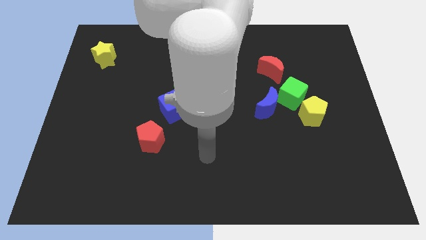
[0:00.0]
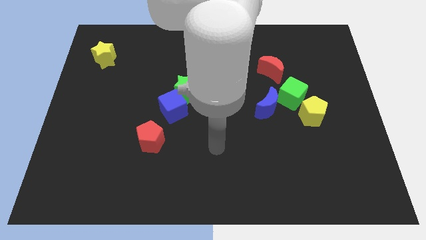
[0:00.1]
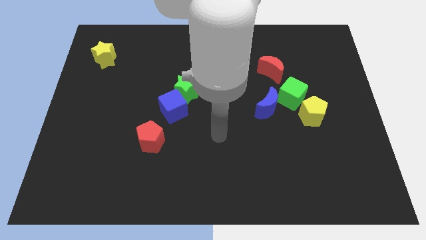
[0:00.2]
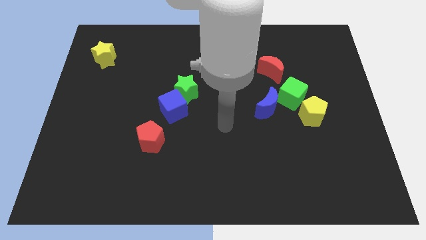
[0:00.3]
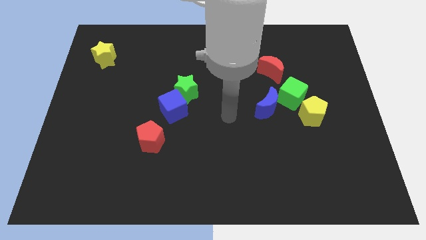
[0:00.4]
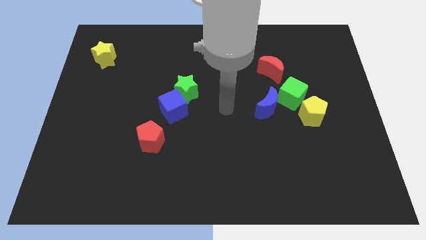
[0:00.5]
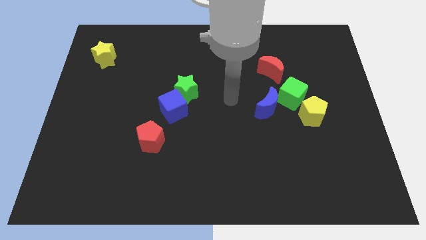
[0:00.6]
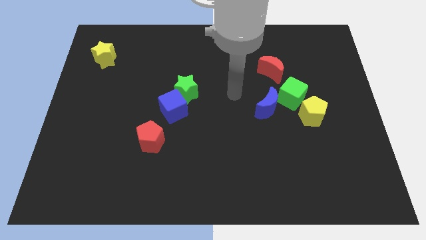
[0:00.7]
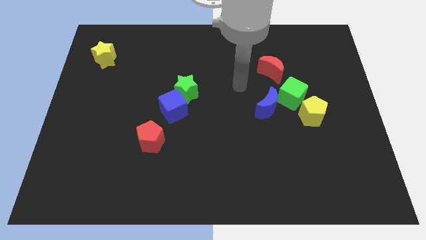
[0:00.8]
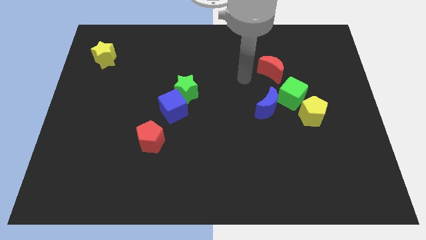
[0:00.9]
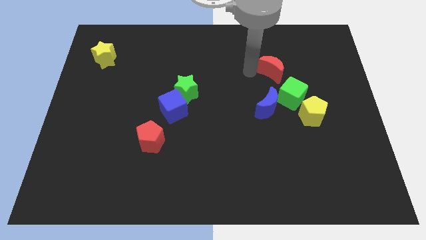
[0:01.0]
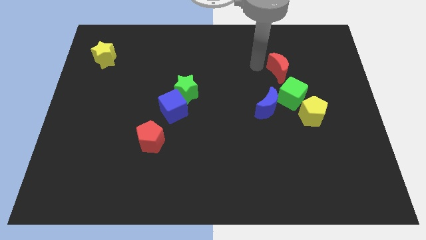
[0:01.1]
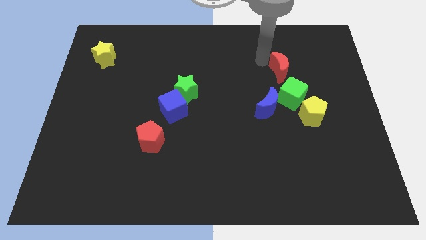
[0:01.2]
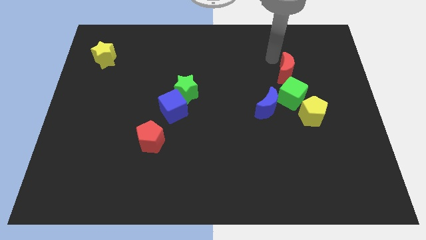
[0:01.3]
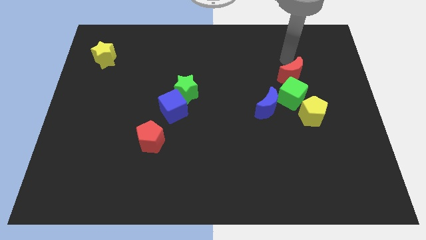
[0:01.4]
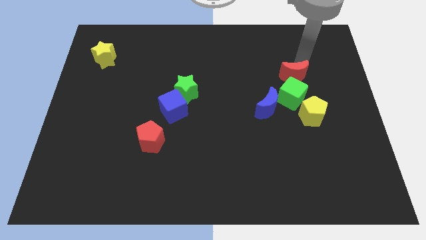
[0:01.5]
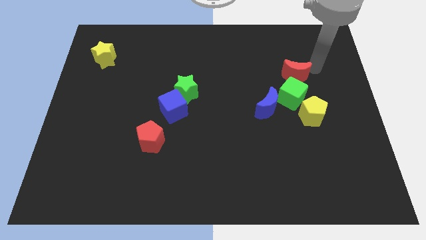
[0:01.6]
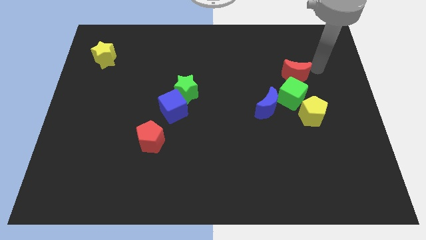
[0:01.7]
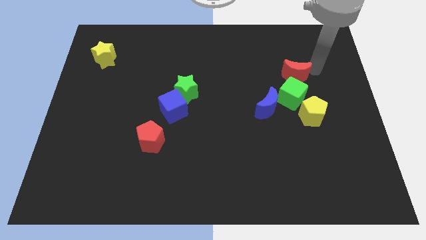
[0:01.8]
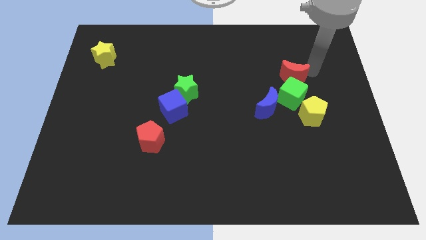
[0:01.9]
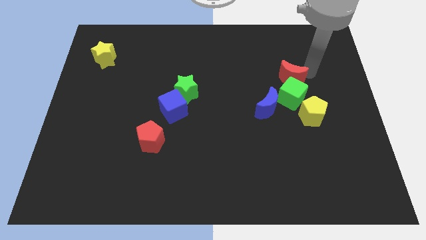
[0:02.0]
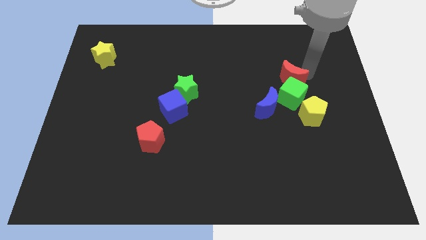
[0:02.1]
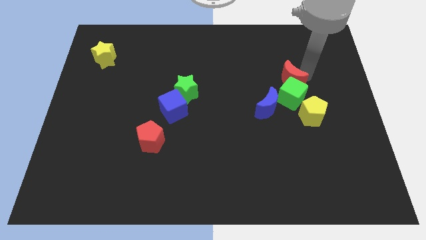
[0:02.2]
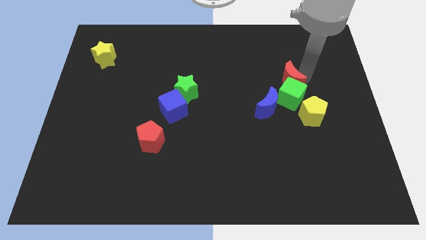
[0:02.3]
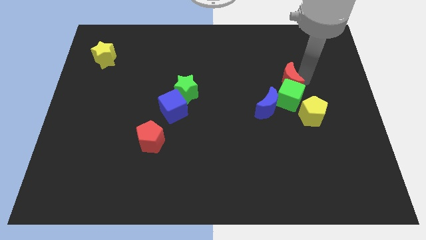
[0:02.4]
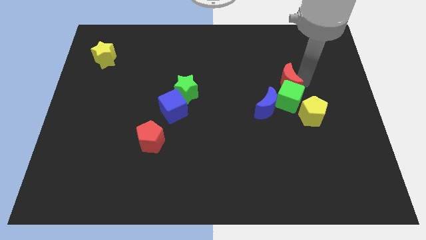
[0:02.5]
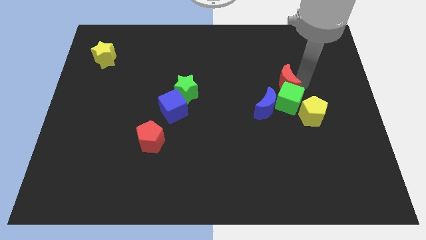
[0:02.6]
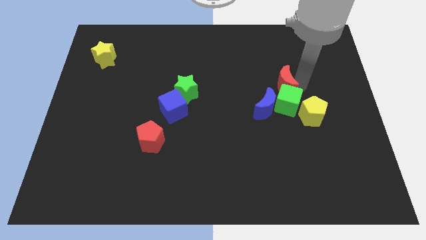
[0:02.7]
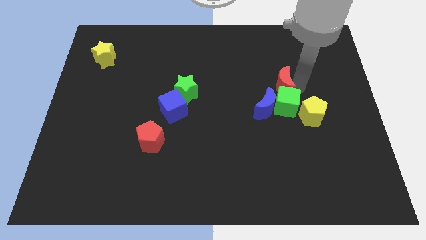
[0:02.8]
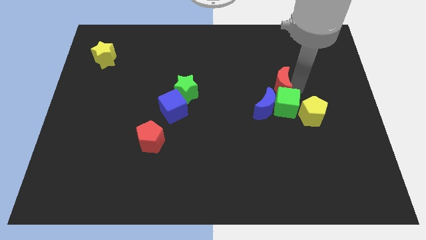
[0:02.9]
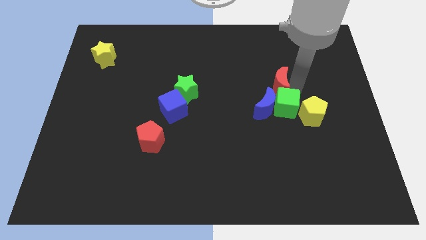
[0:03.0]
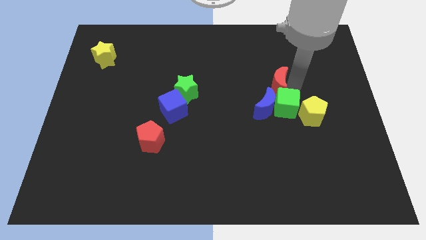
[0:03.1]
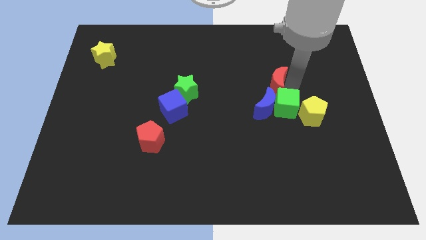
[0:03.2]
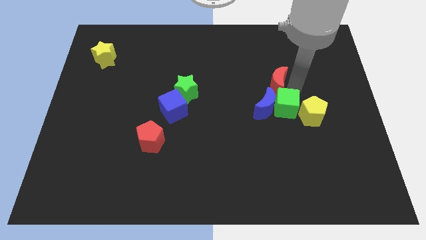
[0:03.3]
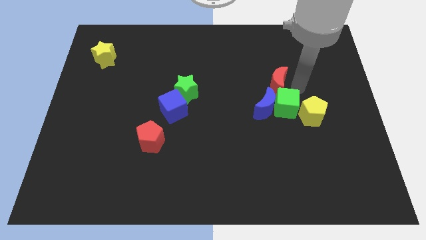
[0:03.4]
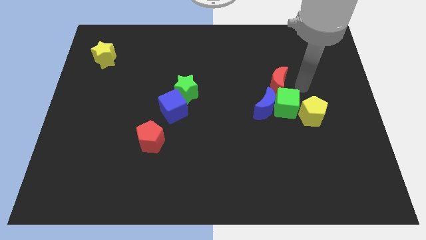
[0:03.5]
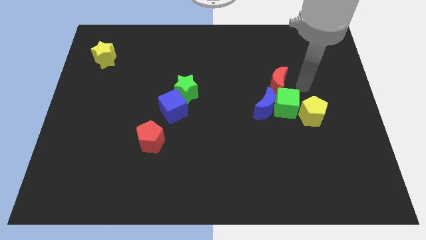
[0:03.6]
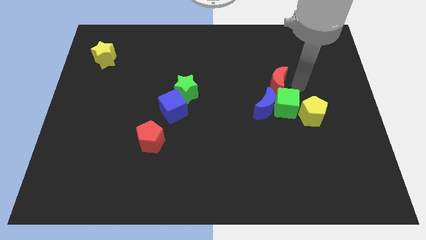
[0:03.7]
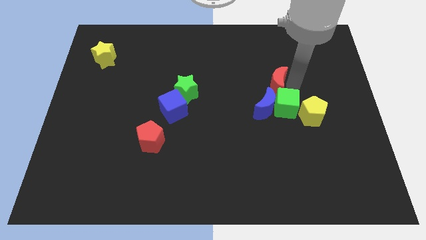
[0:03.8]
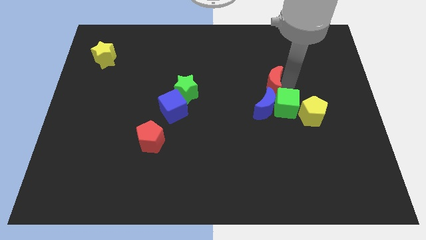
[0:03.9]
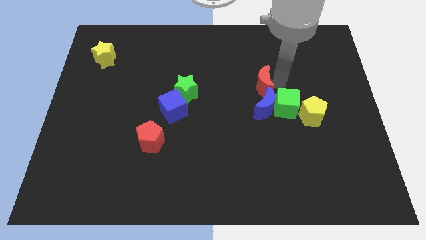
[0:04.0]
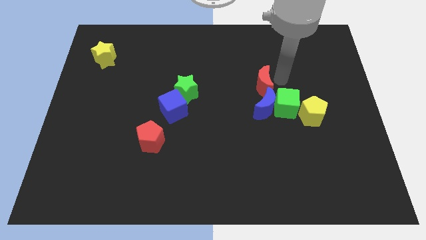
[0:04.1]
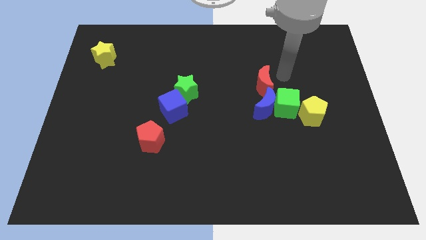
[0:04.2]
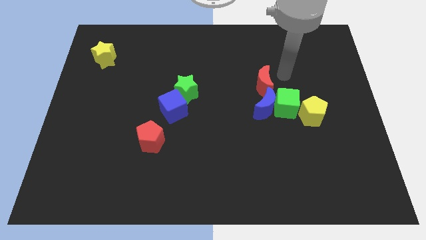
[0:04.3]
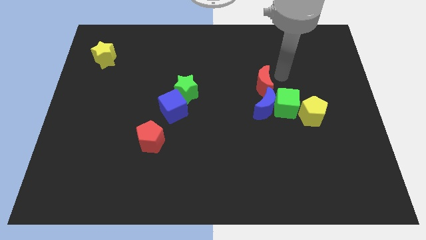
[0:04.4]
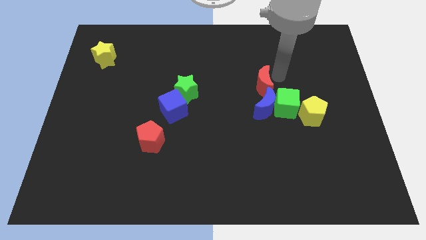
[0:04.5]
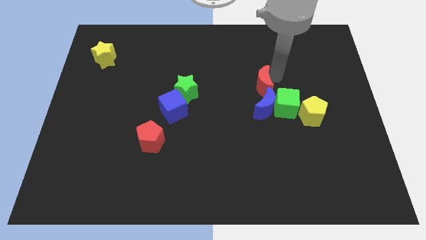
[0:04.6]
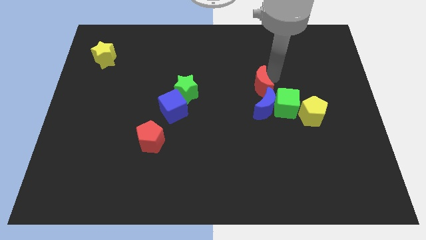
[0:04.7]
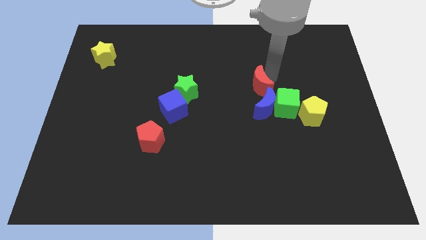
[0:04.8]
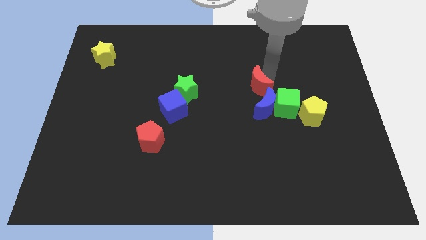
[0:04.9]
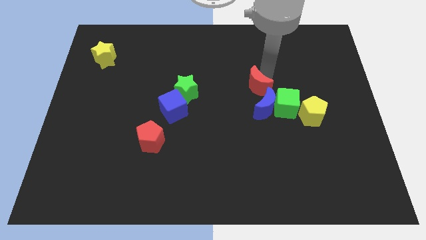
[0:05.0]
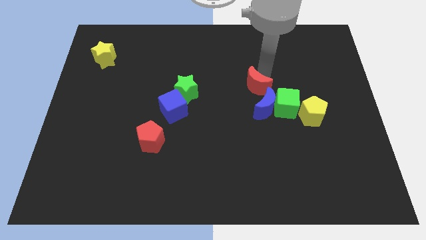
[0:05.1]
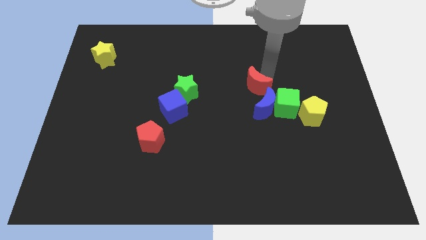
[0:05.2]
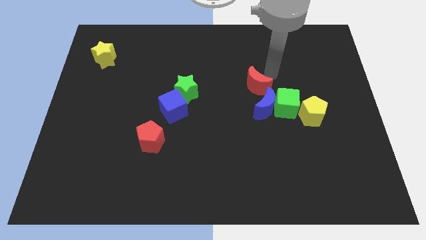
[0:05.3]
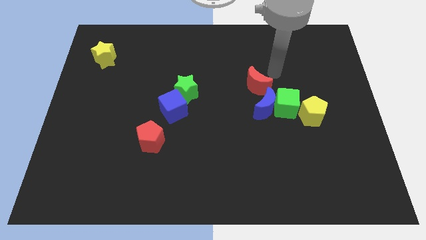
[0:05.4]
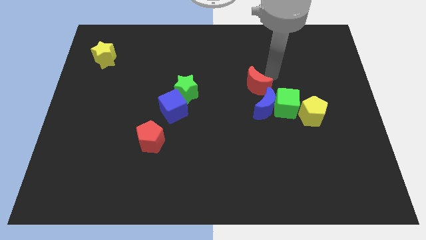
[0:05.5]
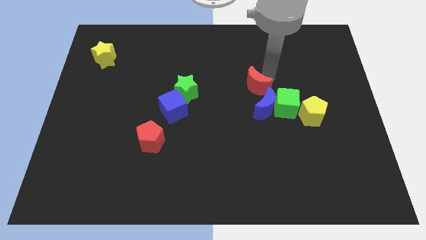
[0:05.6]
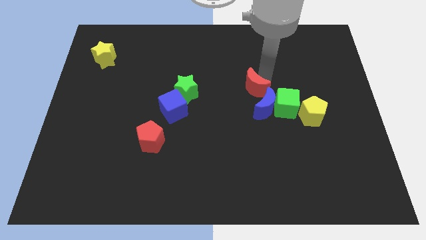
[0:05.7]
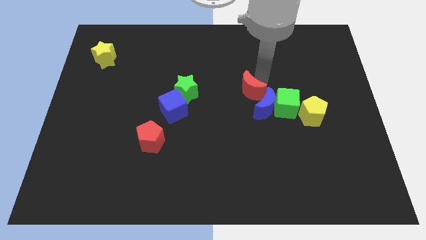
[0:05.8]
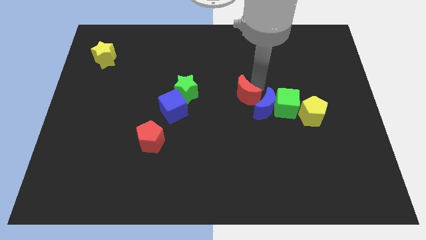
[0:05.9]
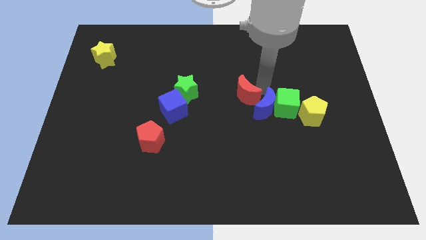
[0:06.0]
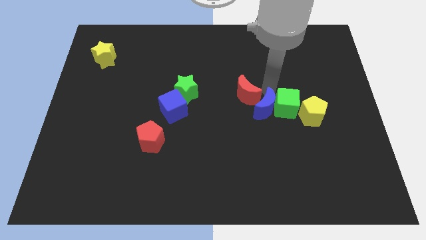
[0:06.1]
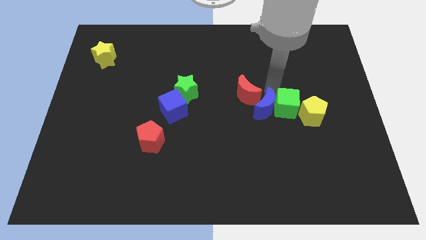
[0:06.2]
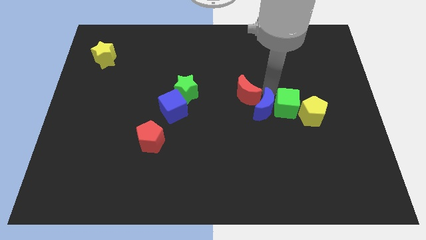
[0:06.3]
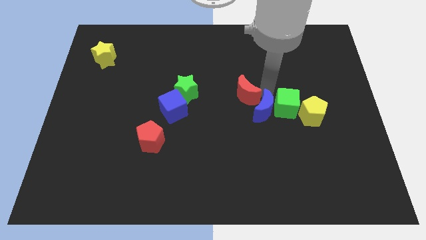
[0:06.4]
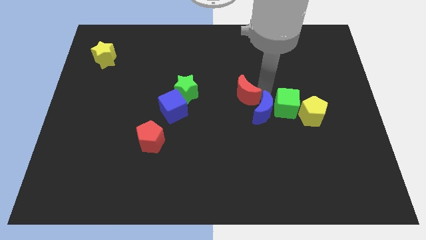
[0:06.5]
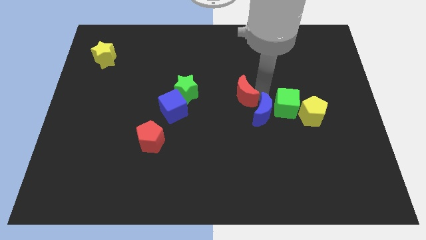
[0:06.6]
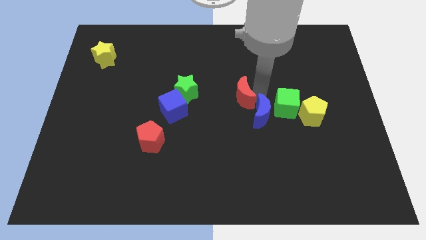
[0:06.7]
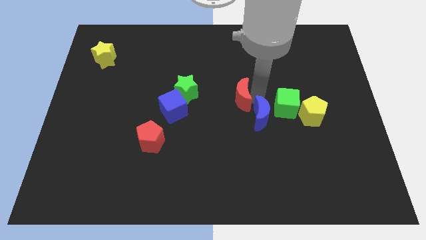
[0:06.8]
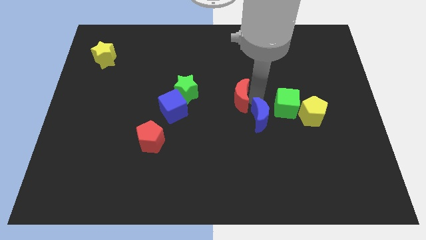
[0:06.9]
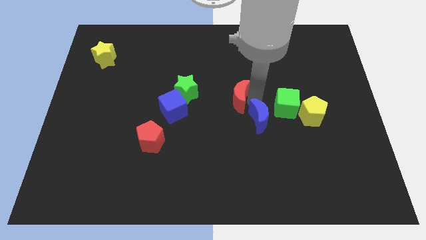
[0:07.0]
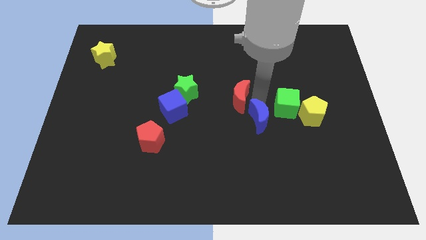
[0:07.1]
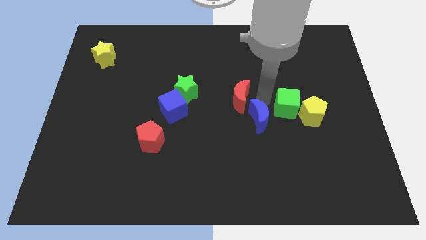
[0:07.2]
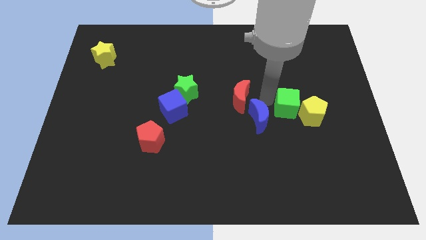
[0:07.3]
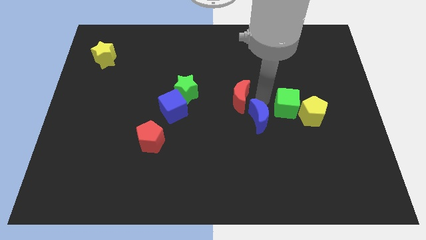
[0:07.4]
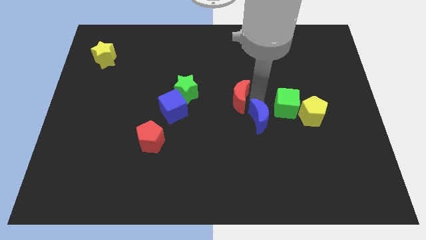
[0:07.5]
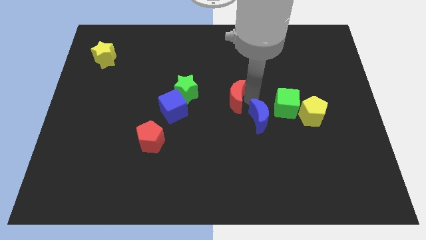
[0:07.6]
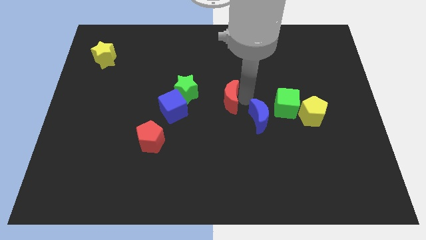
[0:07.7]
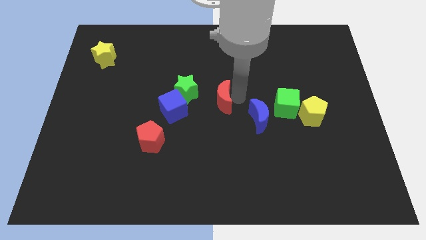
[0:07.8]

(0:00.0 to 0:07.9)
slide the red moon to the bottom right side of the green star
